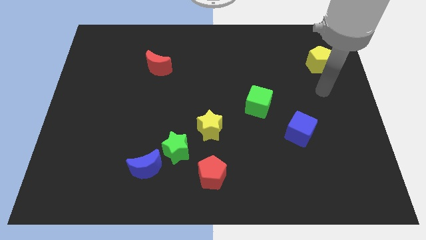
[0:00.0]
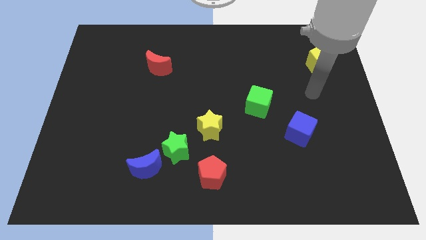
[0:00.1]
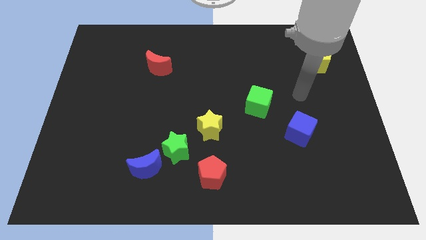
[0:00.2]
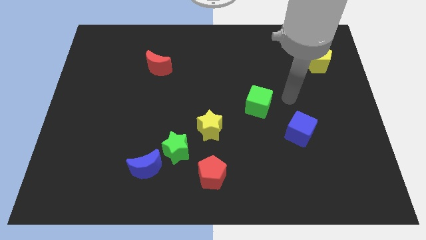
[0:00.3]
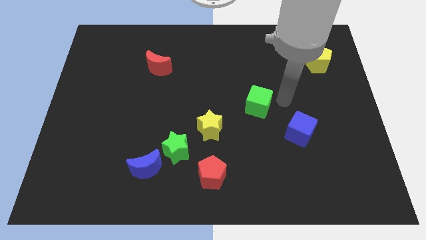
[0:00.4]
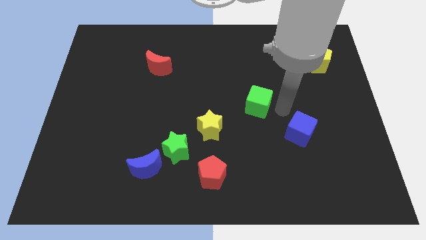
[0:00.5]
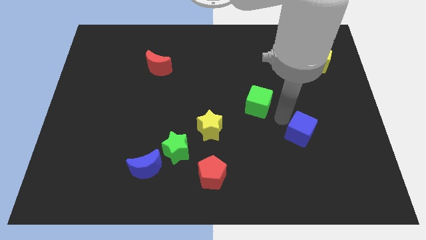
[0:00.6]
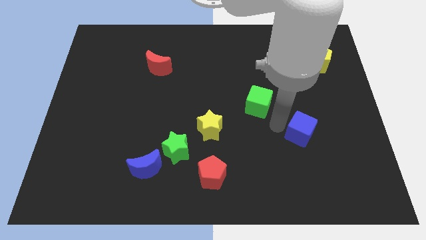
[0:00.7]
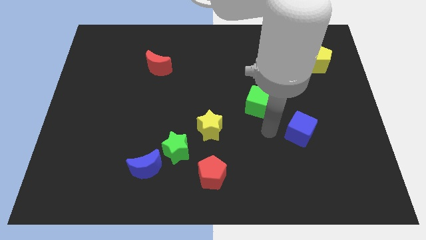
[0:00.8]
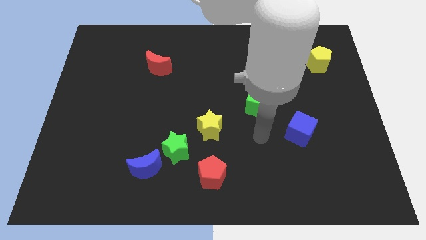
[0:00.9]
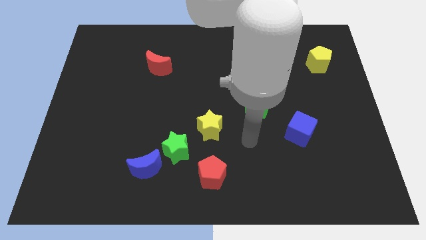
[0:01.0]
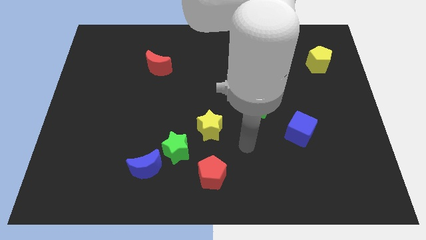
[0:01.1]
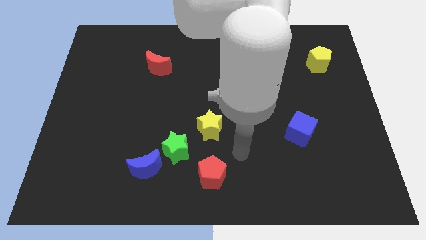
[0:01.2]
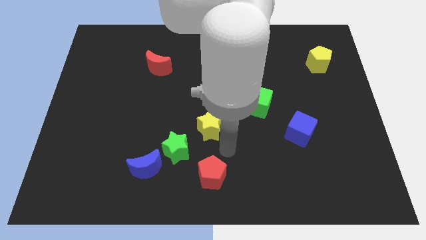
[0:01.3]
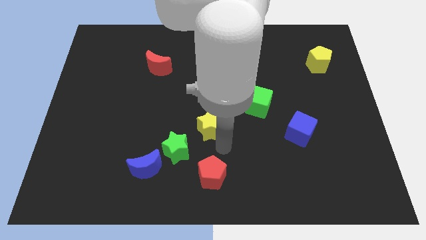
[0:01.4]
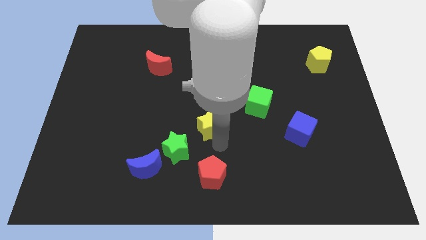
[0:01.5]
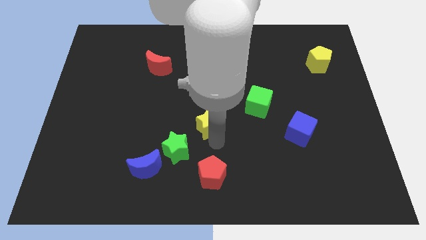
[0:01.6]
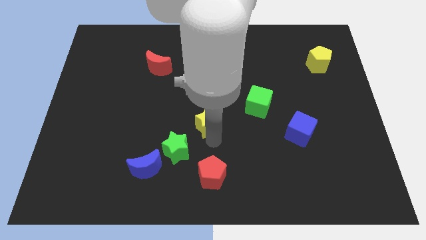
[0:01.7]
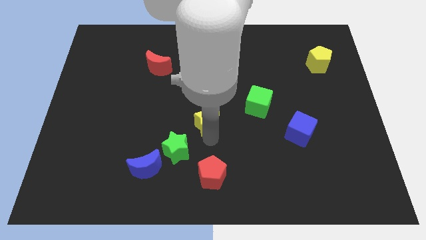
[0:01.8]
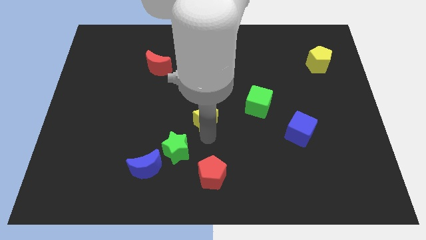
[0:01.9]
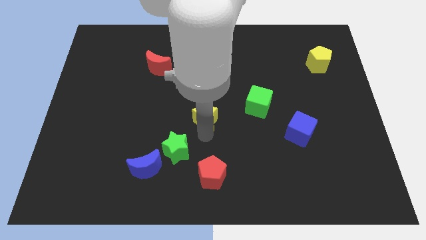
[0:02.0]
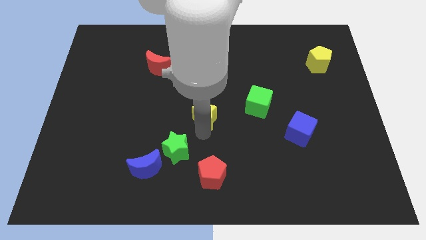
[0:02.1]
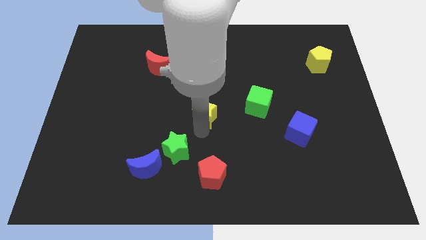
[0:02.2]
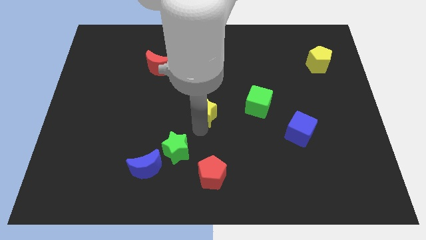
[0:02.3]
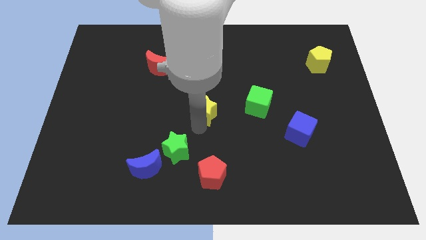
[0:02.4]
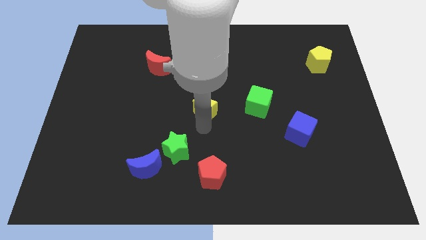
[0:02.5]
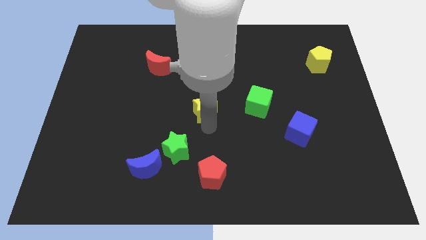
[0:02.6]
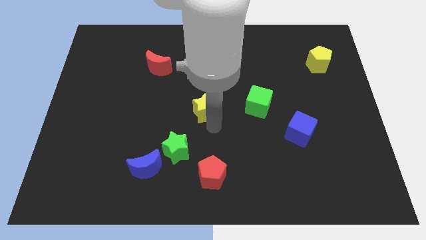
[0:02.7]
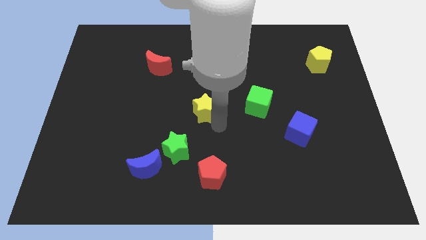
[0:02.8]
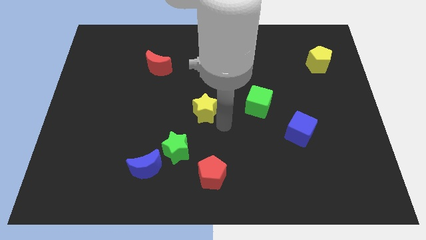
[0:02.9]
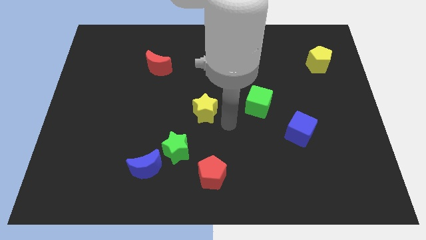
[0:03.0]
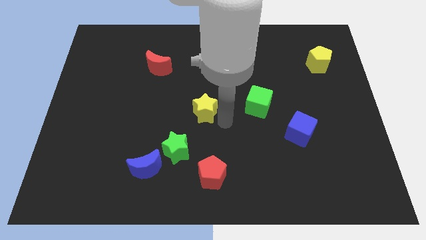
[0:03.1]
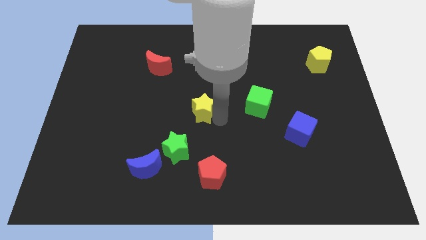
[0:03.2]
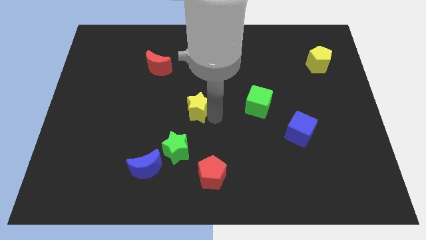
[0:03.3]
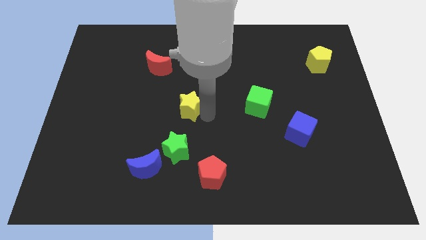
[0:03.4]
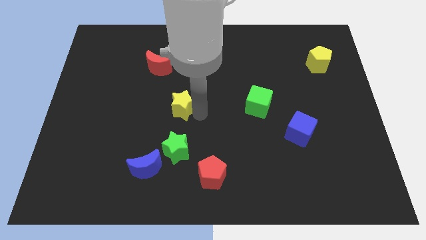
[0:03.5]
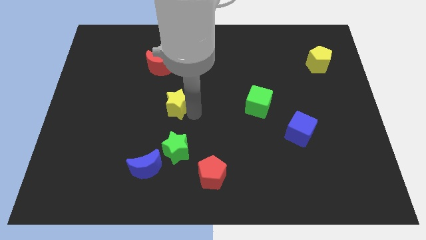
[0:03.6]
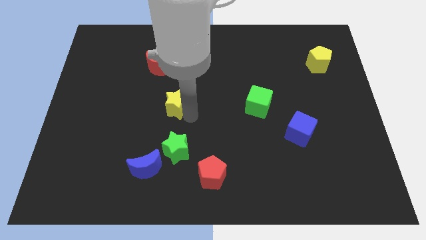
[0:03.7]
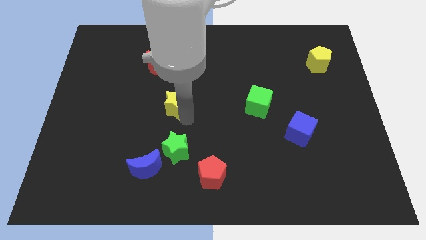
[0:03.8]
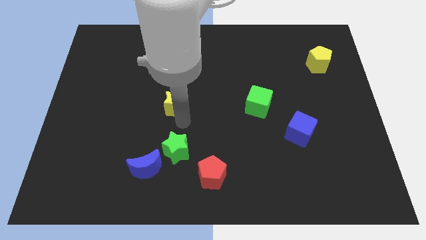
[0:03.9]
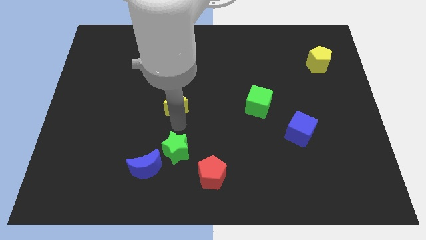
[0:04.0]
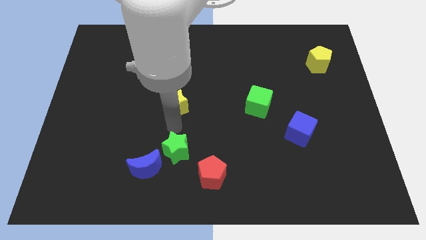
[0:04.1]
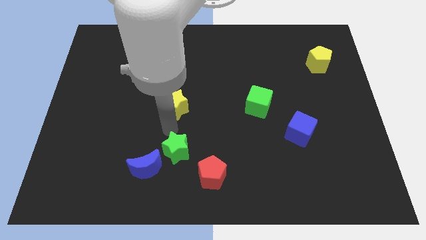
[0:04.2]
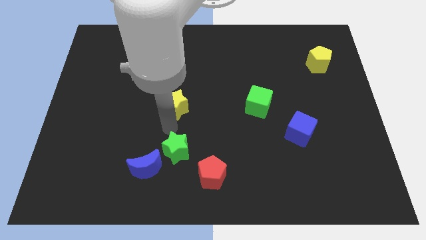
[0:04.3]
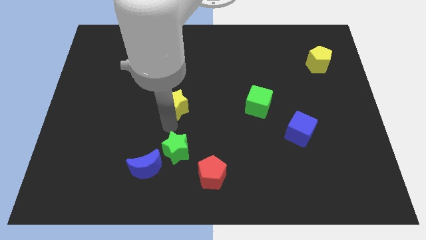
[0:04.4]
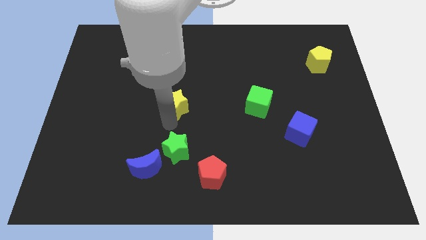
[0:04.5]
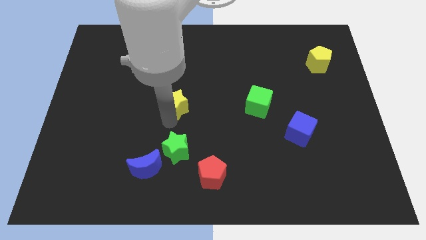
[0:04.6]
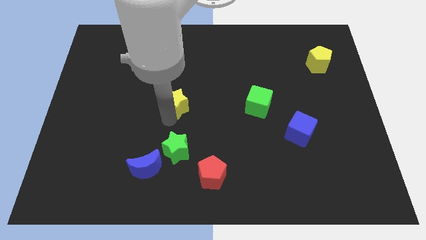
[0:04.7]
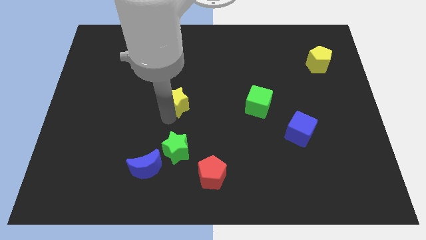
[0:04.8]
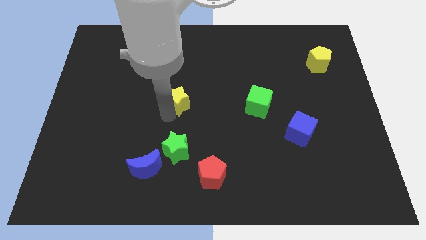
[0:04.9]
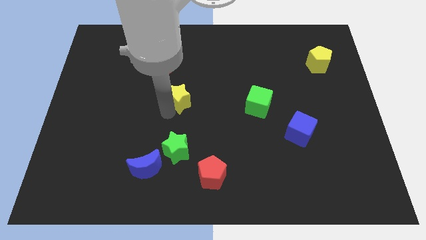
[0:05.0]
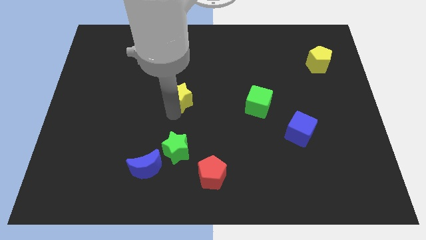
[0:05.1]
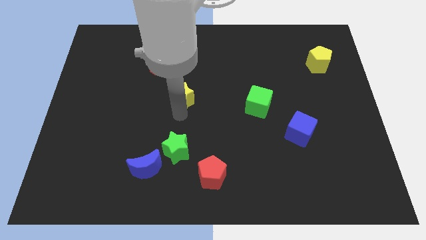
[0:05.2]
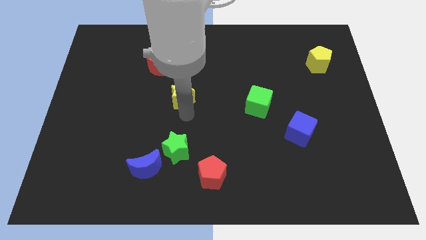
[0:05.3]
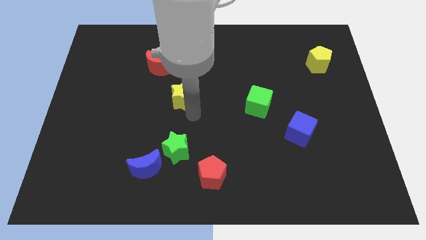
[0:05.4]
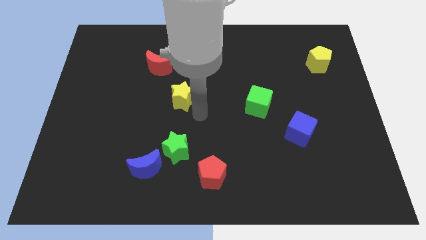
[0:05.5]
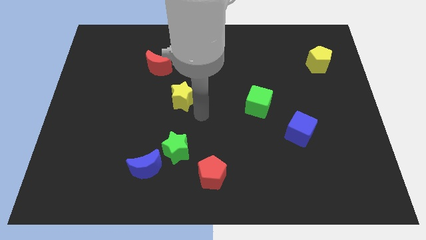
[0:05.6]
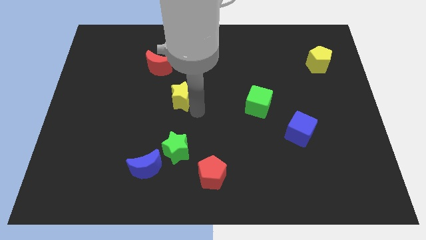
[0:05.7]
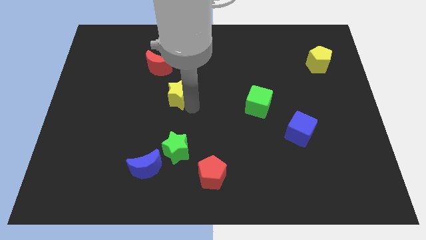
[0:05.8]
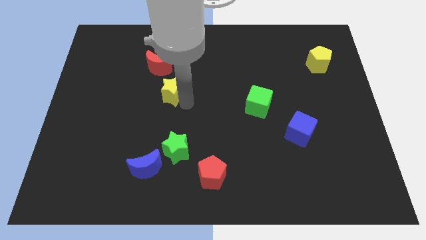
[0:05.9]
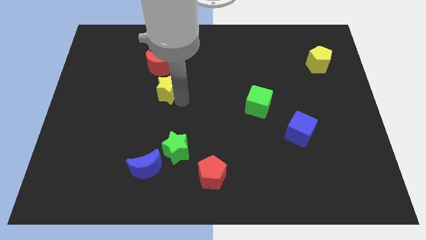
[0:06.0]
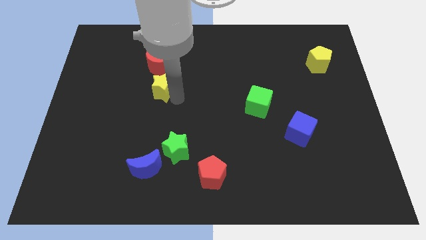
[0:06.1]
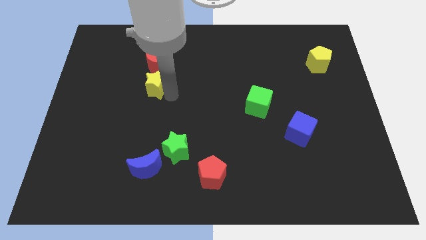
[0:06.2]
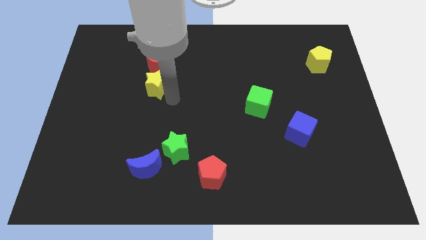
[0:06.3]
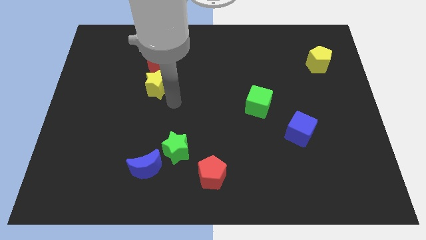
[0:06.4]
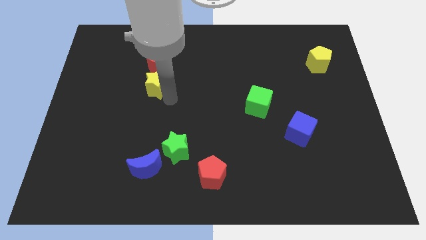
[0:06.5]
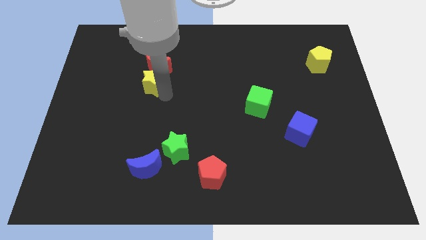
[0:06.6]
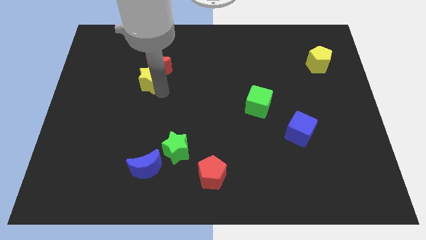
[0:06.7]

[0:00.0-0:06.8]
push the yellow star up and then left

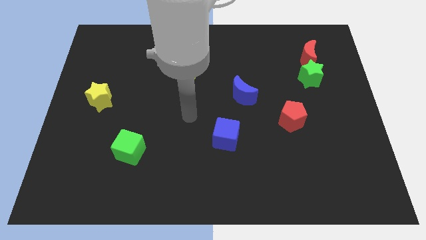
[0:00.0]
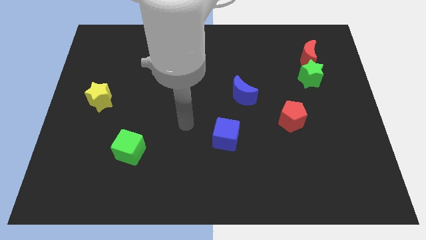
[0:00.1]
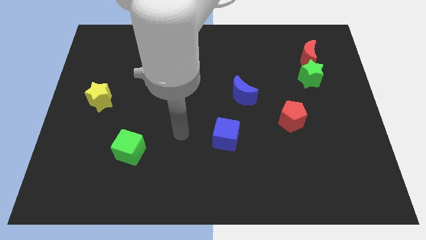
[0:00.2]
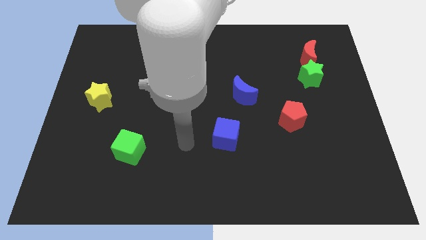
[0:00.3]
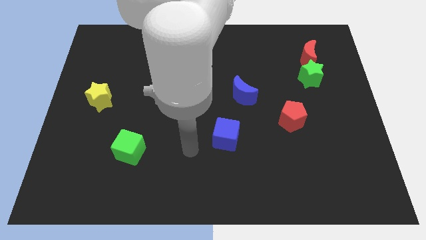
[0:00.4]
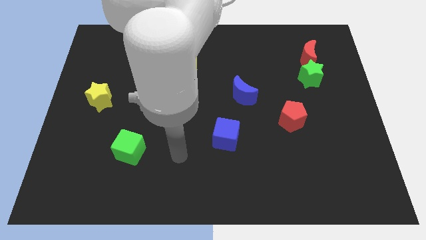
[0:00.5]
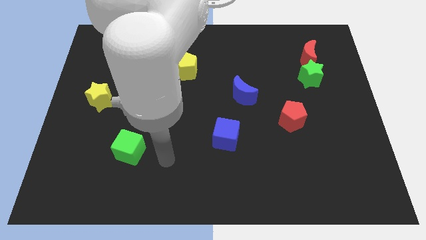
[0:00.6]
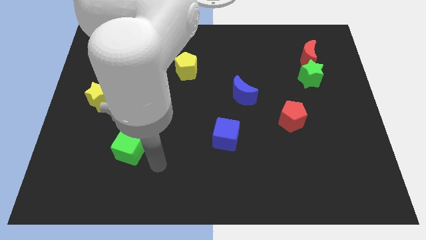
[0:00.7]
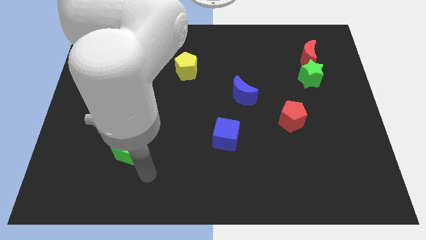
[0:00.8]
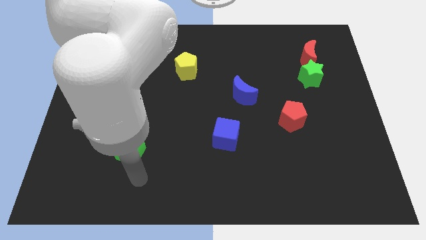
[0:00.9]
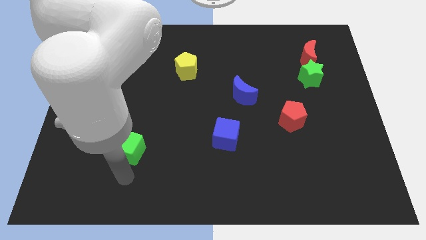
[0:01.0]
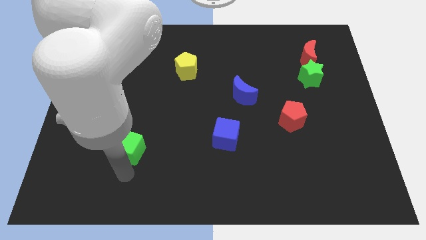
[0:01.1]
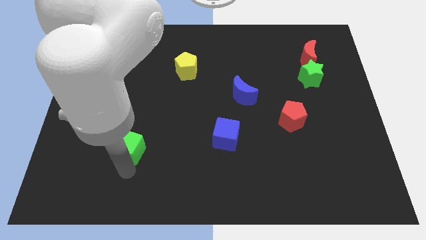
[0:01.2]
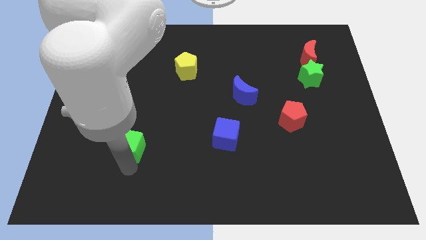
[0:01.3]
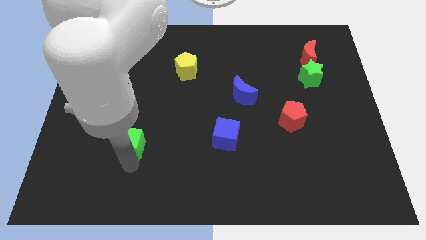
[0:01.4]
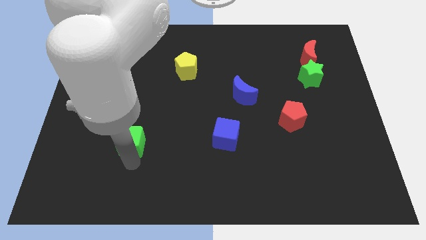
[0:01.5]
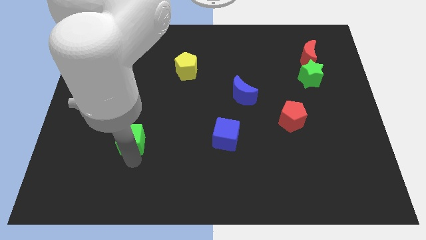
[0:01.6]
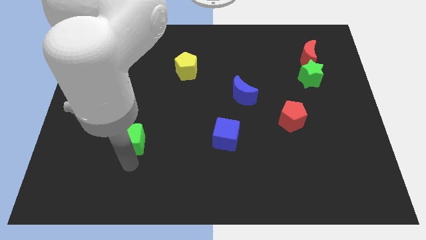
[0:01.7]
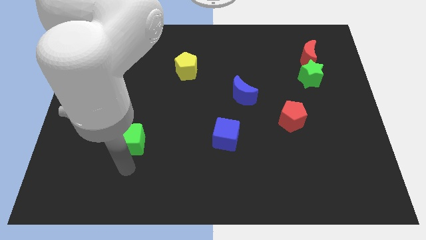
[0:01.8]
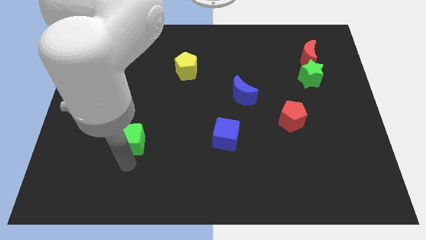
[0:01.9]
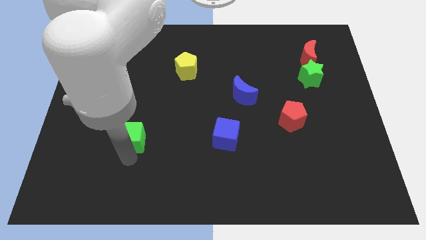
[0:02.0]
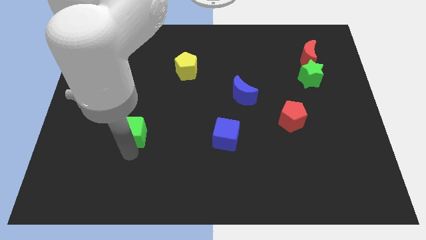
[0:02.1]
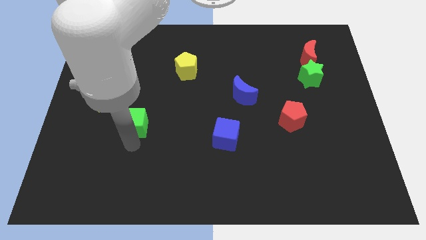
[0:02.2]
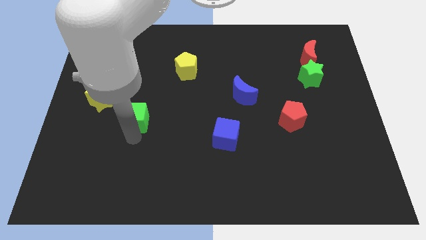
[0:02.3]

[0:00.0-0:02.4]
slightly push the green cube up
